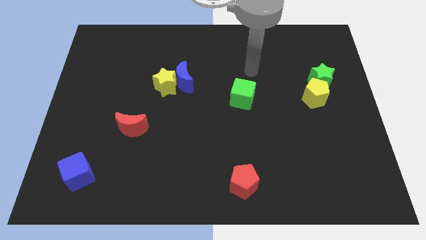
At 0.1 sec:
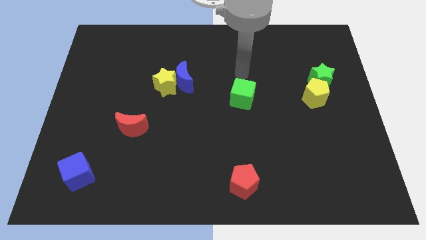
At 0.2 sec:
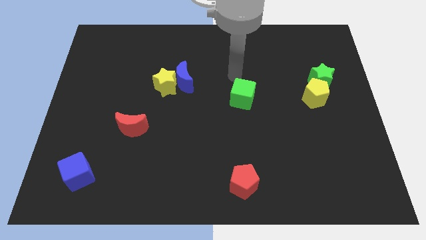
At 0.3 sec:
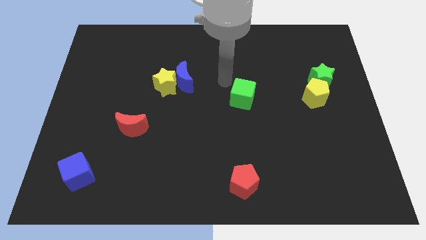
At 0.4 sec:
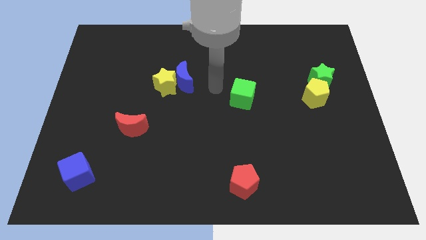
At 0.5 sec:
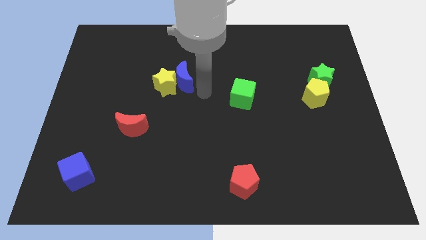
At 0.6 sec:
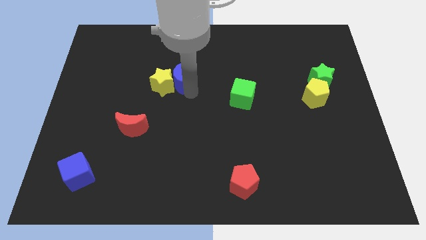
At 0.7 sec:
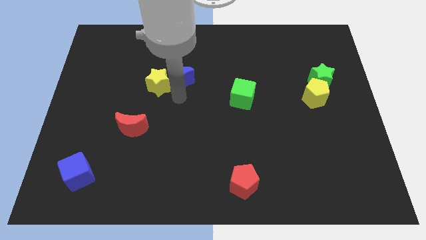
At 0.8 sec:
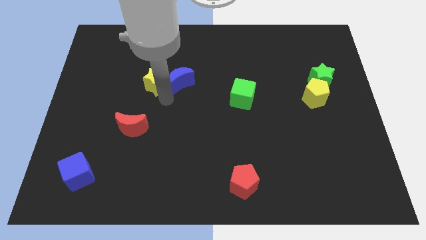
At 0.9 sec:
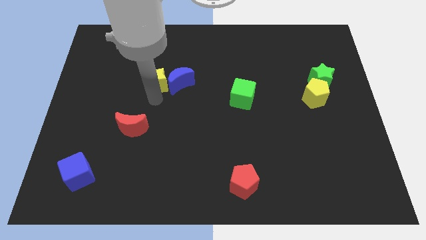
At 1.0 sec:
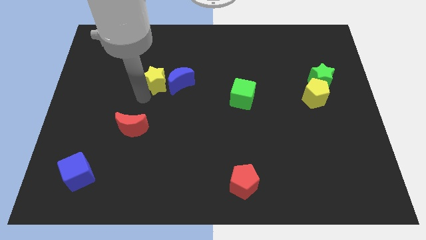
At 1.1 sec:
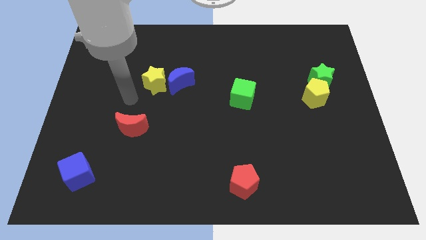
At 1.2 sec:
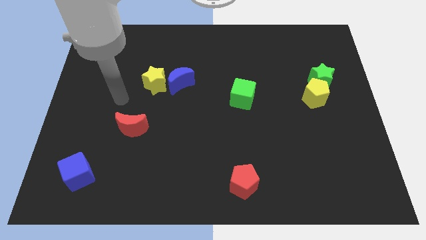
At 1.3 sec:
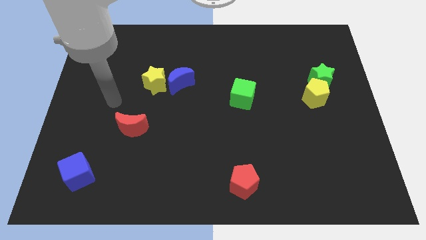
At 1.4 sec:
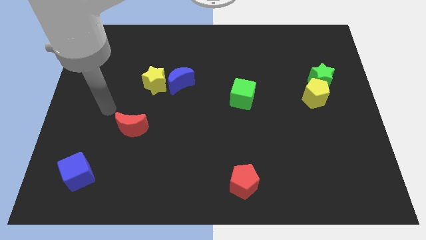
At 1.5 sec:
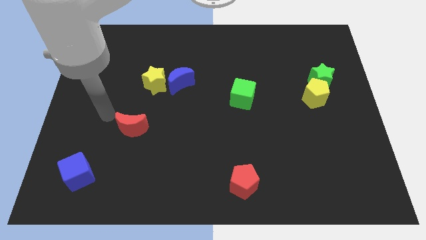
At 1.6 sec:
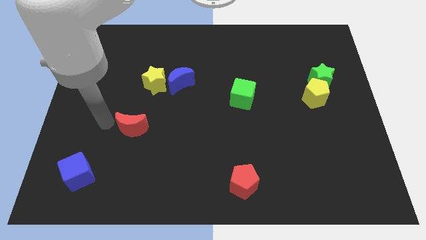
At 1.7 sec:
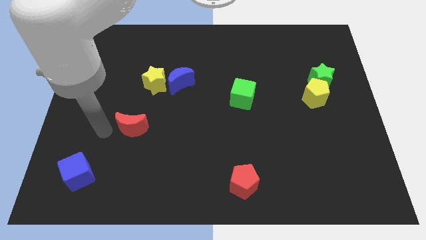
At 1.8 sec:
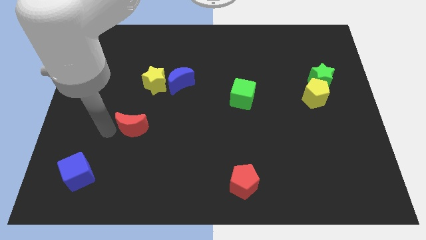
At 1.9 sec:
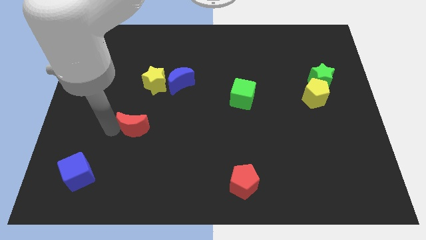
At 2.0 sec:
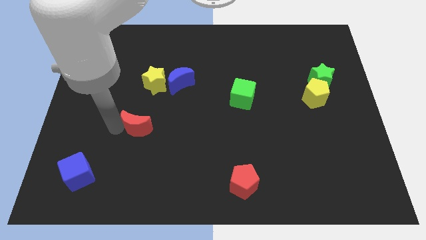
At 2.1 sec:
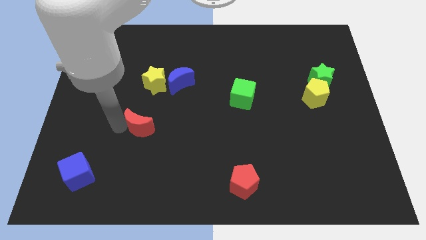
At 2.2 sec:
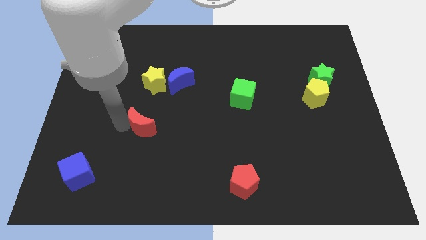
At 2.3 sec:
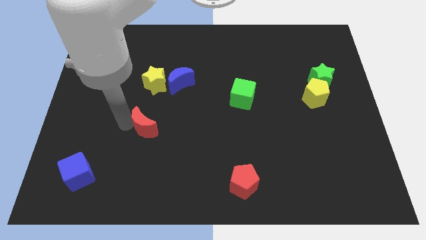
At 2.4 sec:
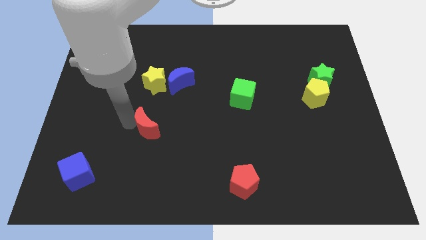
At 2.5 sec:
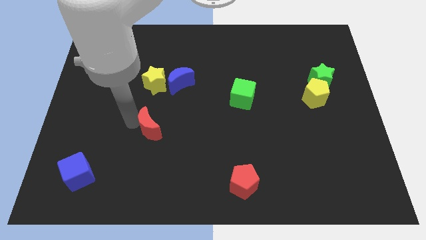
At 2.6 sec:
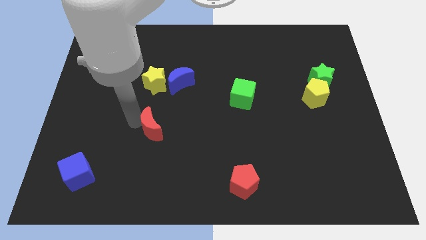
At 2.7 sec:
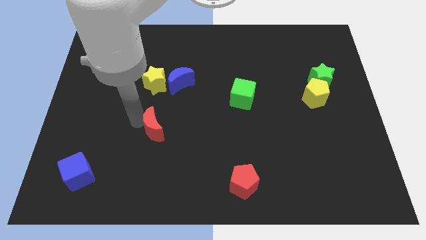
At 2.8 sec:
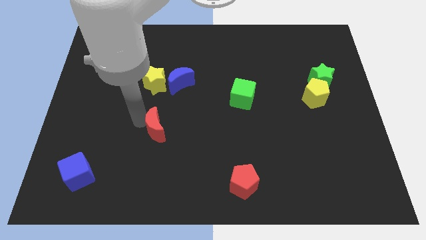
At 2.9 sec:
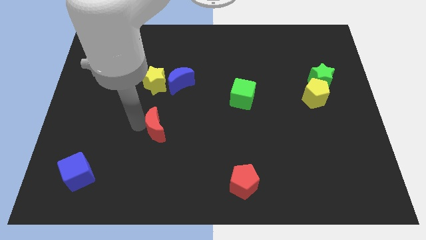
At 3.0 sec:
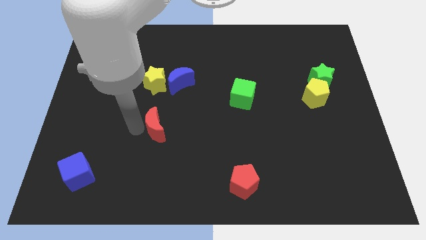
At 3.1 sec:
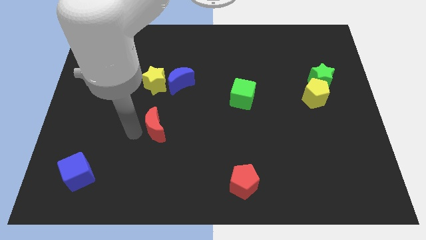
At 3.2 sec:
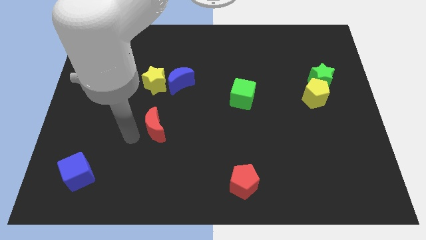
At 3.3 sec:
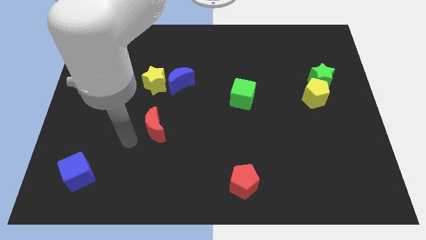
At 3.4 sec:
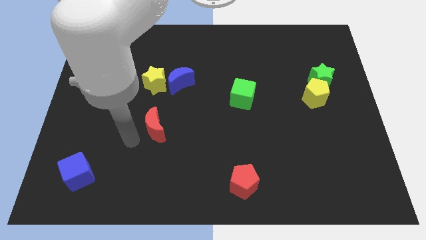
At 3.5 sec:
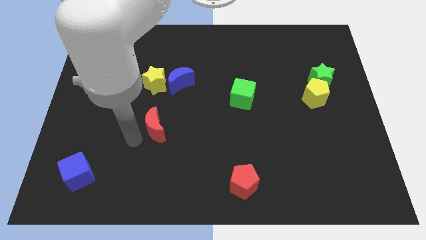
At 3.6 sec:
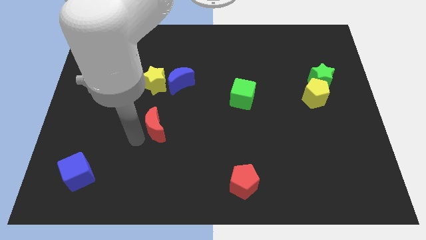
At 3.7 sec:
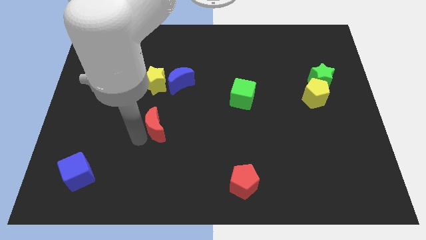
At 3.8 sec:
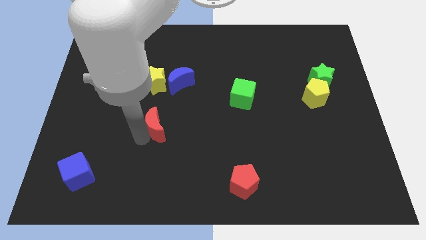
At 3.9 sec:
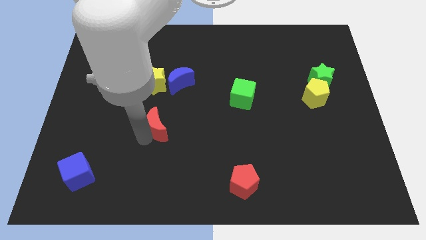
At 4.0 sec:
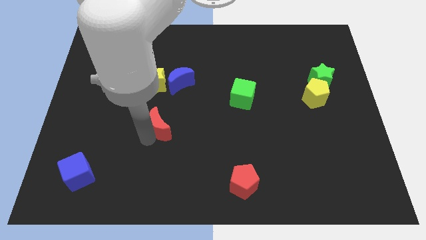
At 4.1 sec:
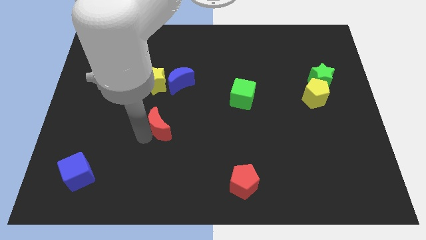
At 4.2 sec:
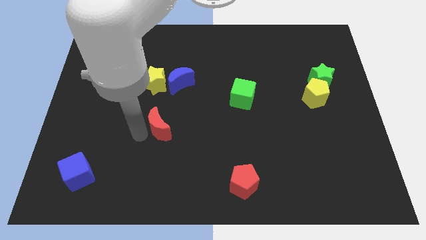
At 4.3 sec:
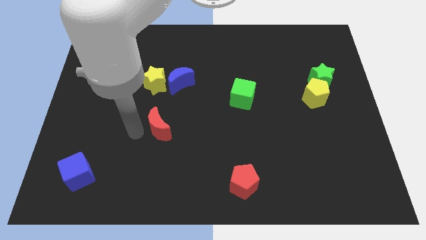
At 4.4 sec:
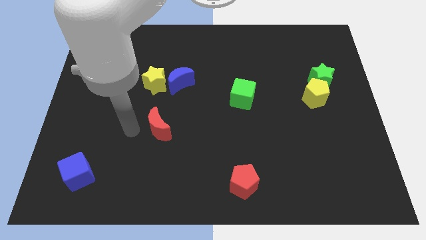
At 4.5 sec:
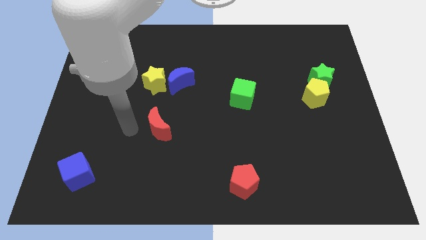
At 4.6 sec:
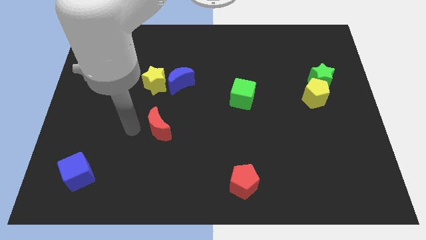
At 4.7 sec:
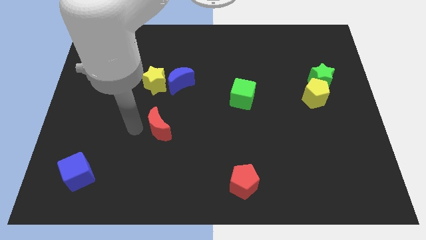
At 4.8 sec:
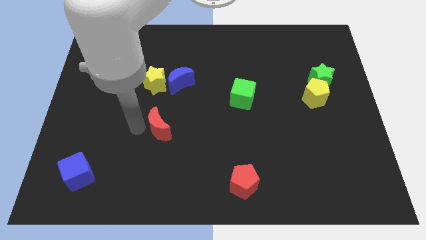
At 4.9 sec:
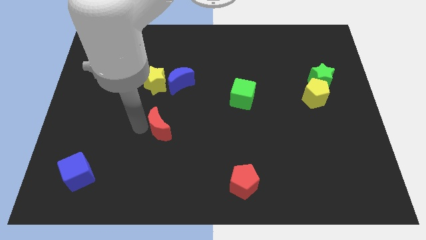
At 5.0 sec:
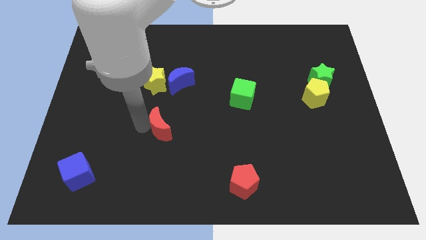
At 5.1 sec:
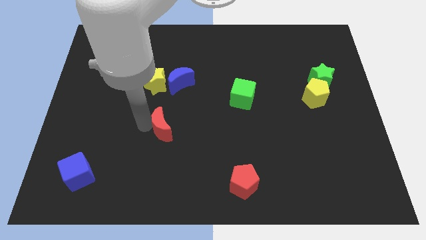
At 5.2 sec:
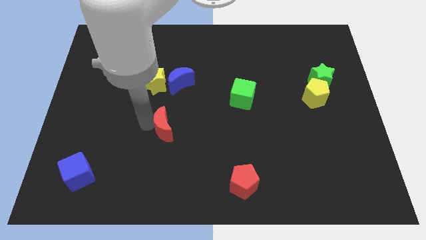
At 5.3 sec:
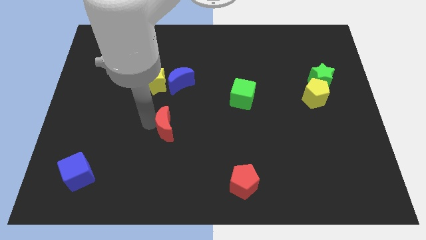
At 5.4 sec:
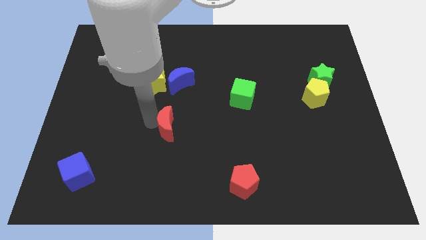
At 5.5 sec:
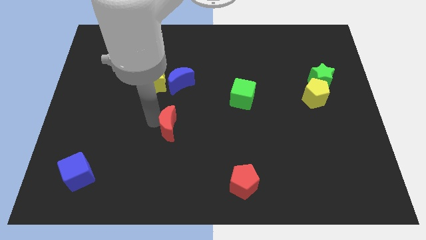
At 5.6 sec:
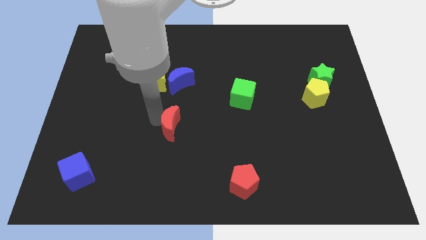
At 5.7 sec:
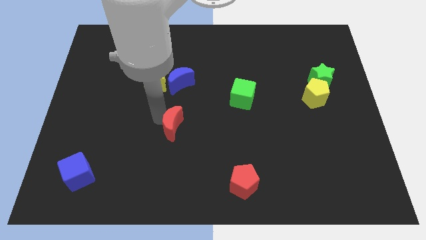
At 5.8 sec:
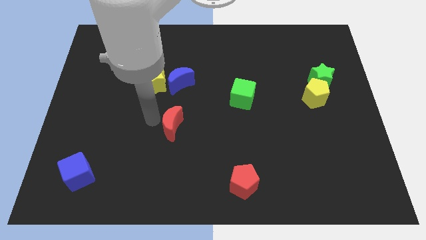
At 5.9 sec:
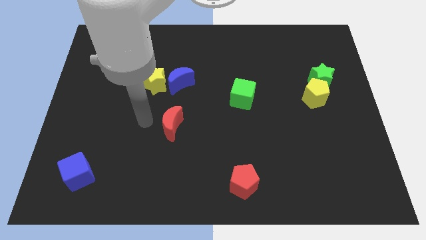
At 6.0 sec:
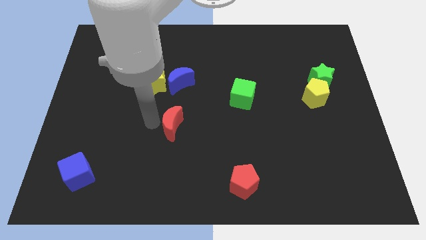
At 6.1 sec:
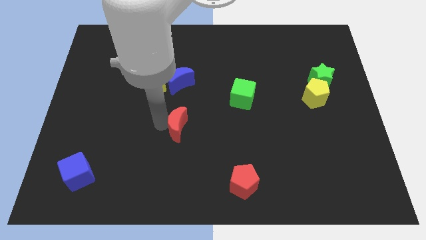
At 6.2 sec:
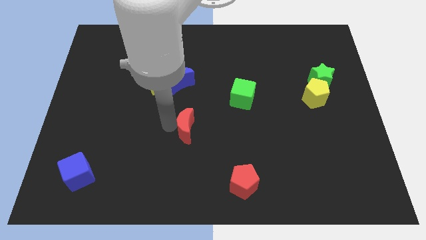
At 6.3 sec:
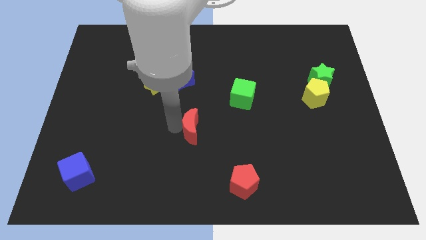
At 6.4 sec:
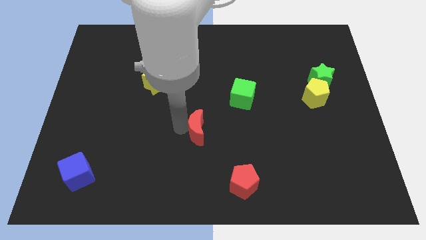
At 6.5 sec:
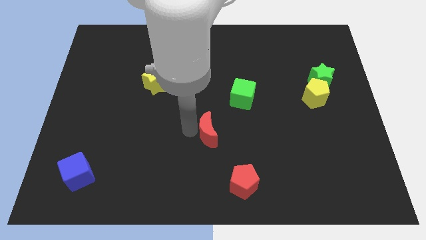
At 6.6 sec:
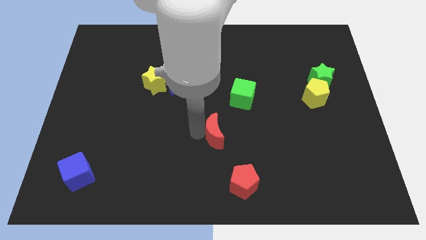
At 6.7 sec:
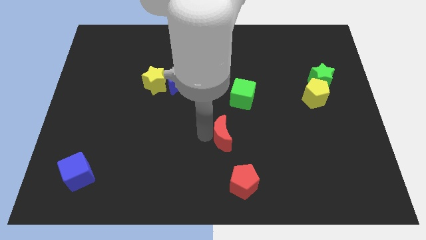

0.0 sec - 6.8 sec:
slide the red moon to the right

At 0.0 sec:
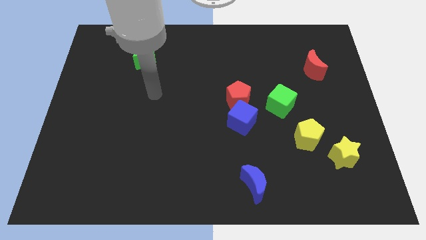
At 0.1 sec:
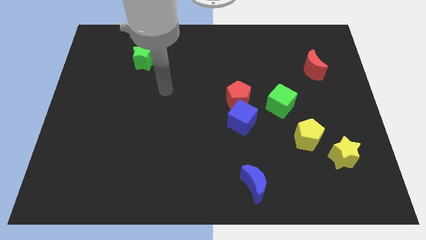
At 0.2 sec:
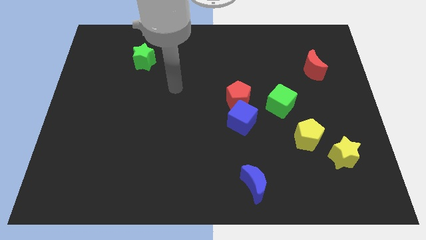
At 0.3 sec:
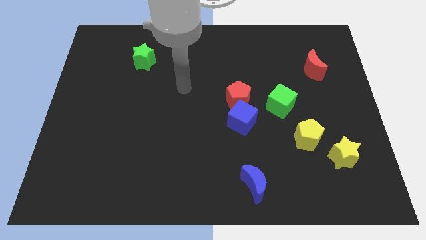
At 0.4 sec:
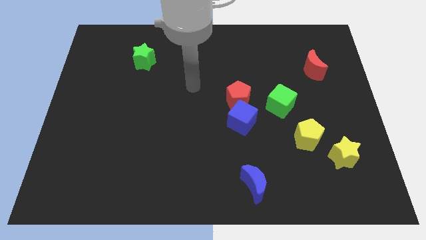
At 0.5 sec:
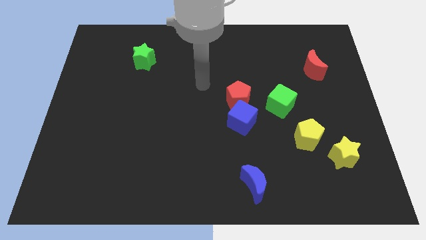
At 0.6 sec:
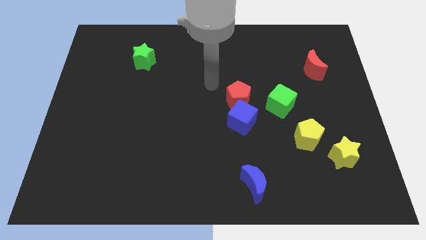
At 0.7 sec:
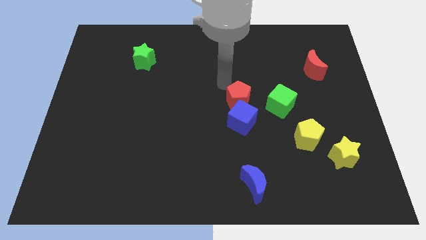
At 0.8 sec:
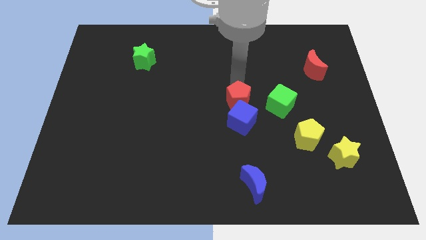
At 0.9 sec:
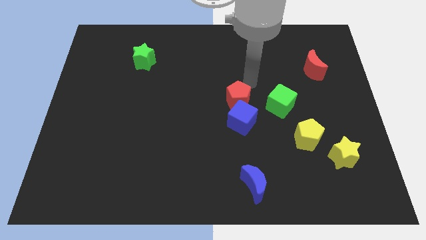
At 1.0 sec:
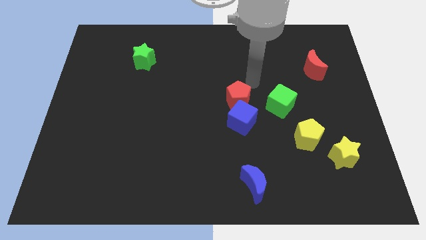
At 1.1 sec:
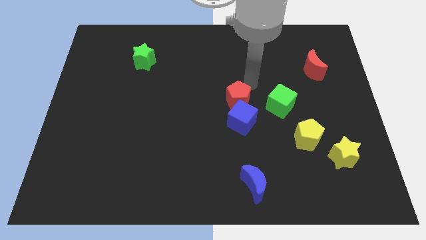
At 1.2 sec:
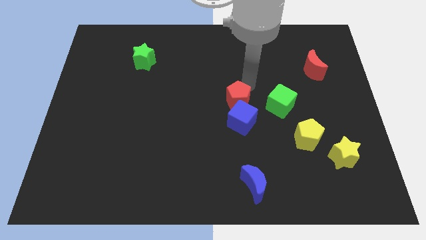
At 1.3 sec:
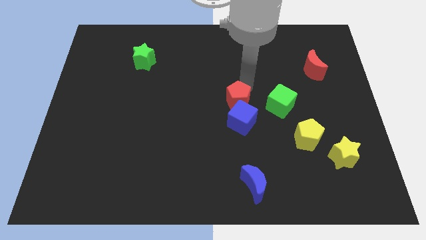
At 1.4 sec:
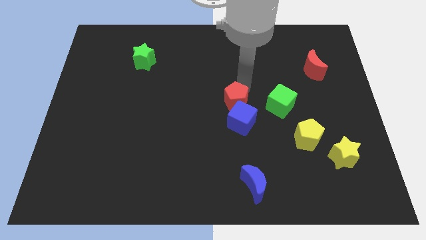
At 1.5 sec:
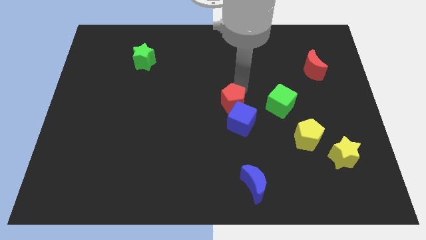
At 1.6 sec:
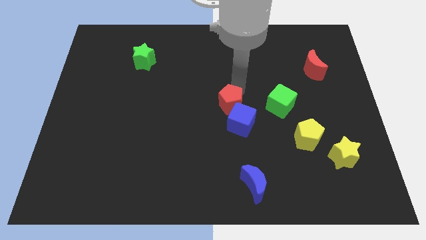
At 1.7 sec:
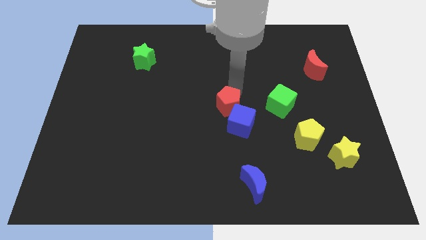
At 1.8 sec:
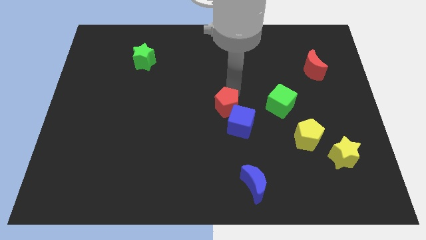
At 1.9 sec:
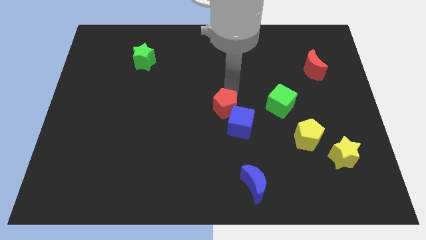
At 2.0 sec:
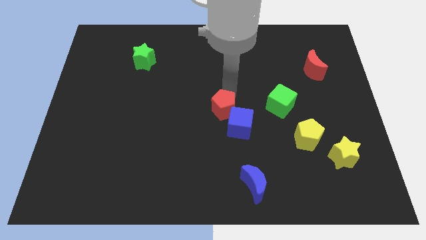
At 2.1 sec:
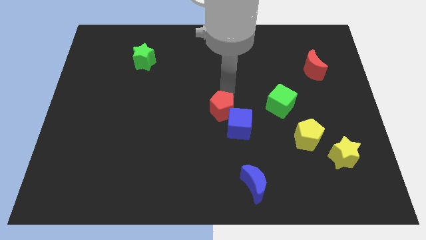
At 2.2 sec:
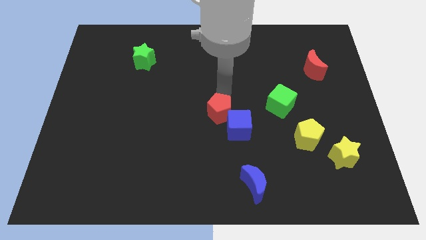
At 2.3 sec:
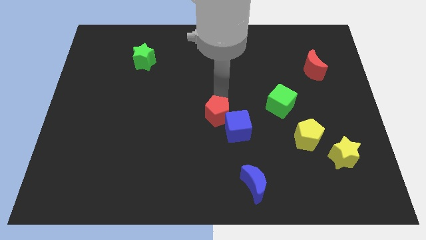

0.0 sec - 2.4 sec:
push the red pentagon down and then to the left slightly
